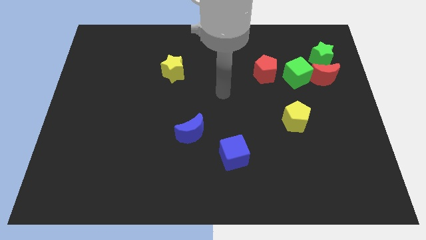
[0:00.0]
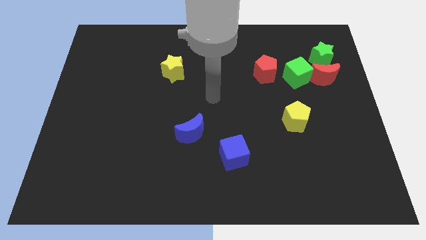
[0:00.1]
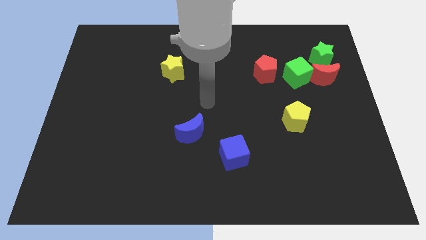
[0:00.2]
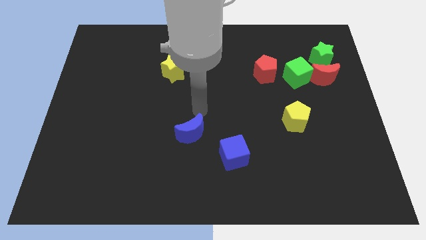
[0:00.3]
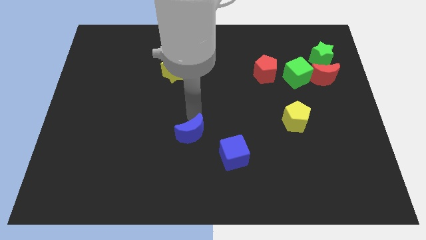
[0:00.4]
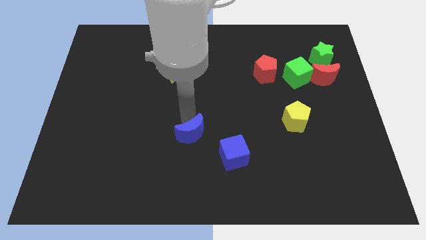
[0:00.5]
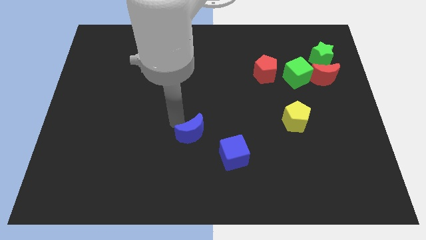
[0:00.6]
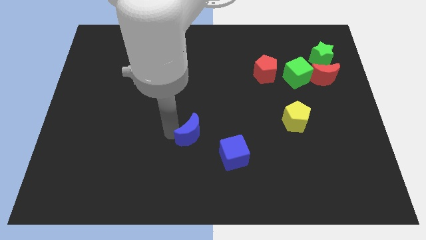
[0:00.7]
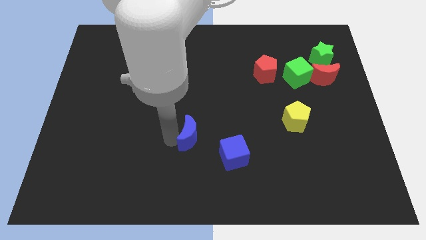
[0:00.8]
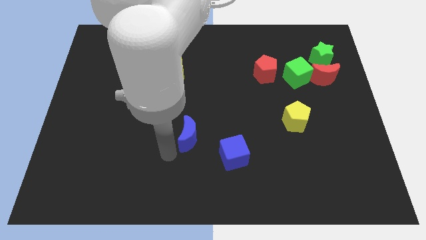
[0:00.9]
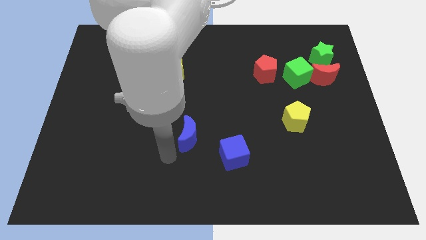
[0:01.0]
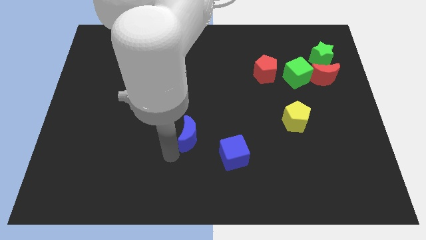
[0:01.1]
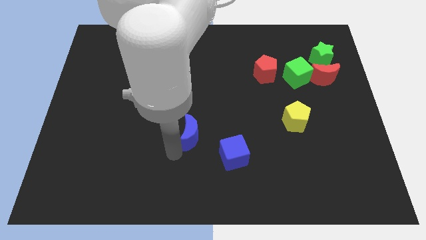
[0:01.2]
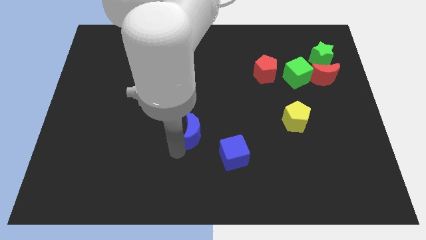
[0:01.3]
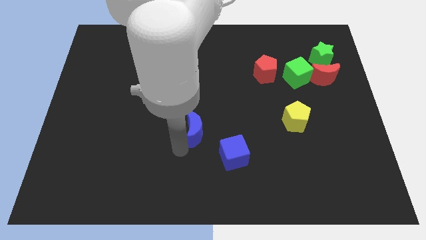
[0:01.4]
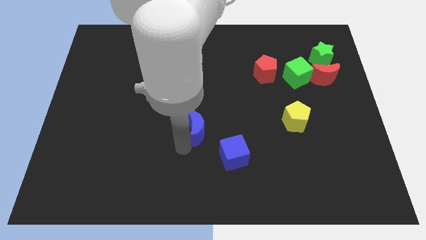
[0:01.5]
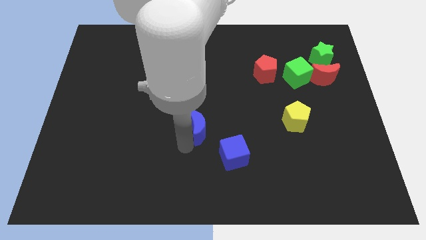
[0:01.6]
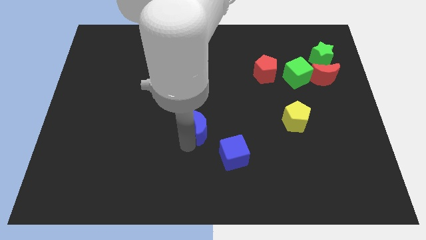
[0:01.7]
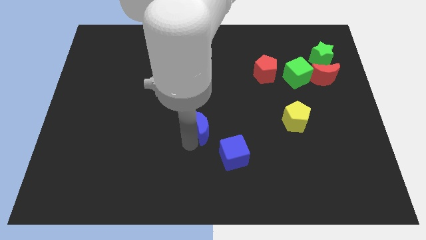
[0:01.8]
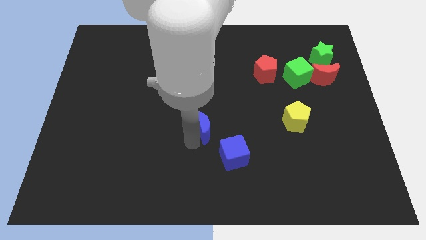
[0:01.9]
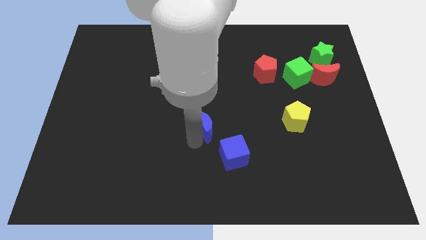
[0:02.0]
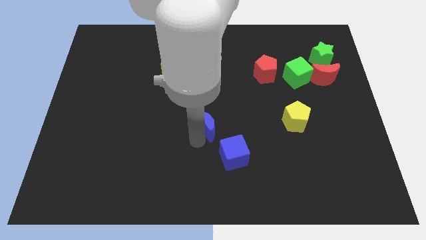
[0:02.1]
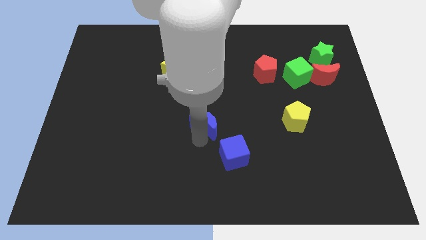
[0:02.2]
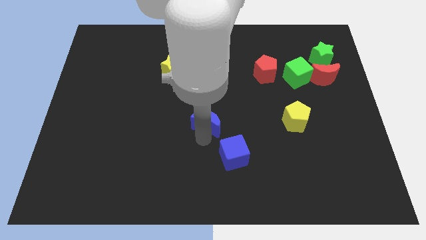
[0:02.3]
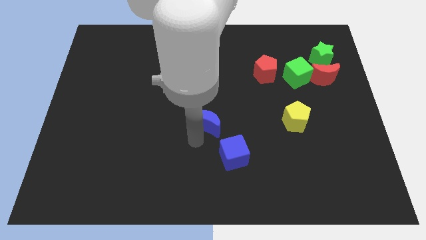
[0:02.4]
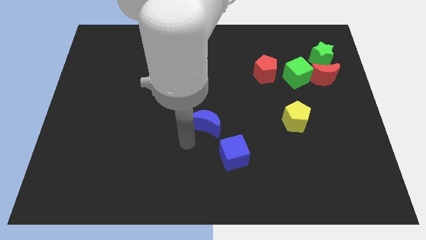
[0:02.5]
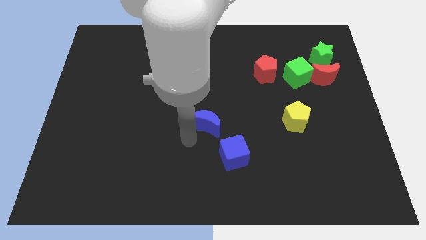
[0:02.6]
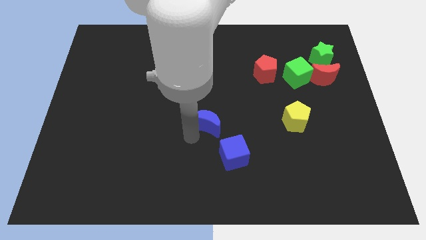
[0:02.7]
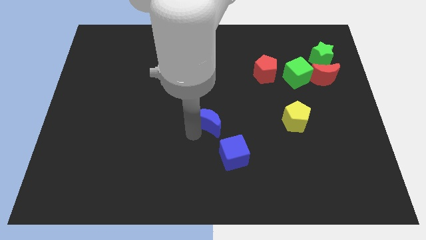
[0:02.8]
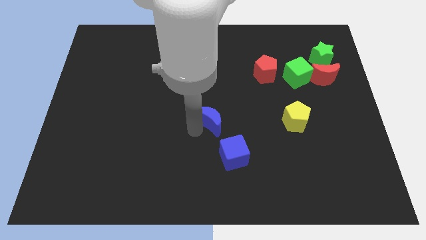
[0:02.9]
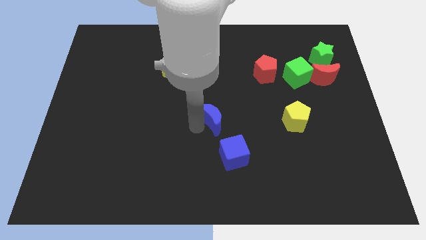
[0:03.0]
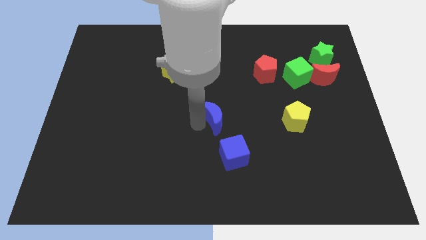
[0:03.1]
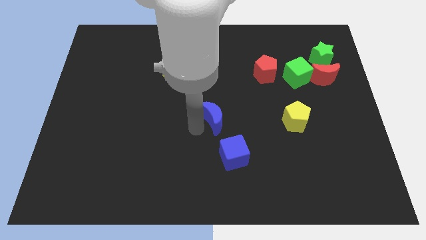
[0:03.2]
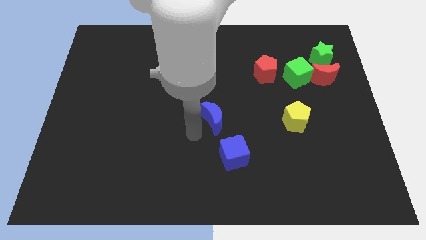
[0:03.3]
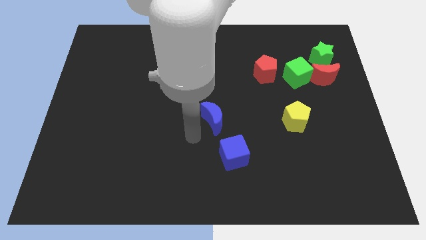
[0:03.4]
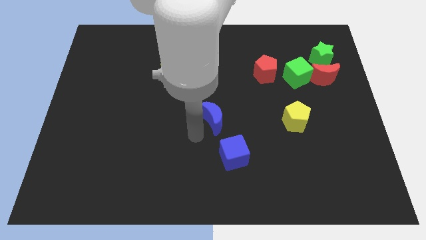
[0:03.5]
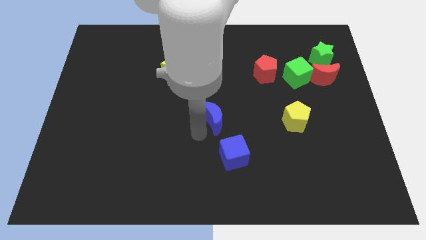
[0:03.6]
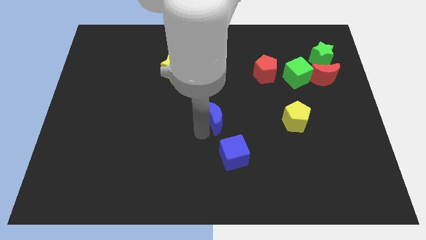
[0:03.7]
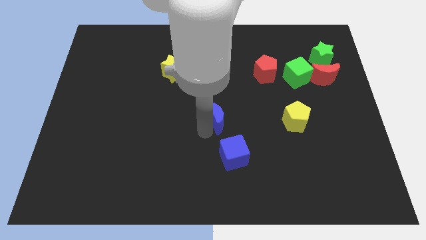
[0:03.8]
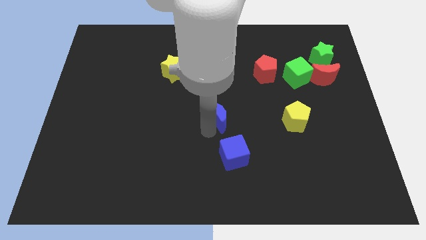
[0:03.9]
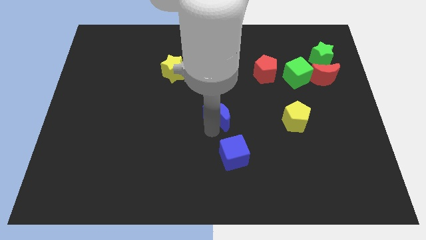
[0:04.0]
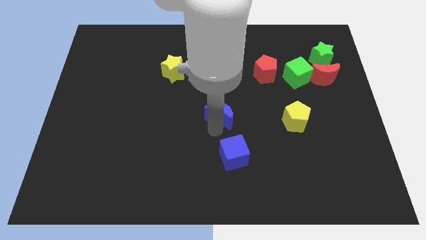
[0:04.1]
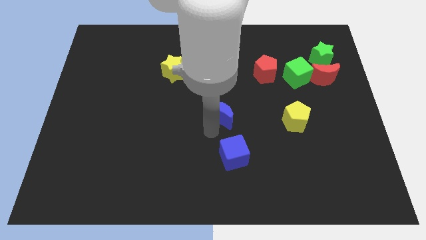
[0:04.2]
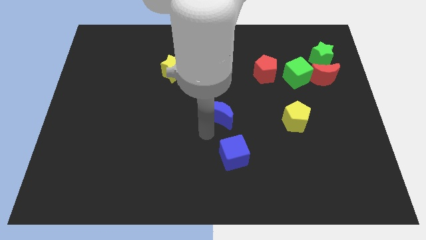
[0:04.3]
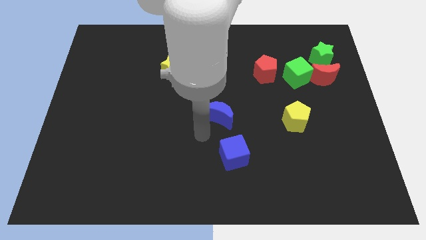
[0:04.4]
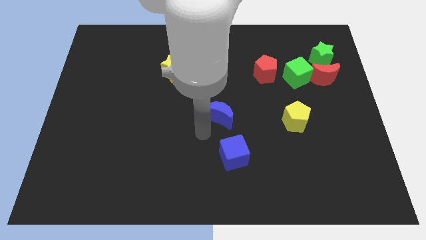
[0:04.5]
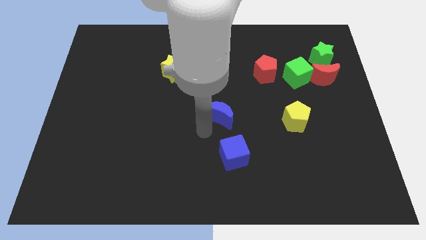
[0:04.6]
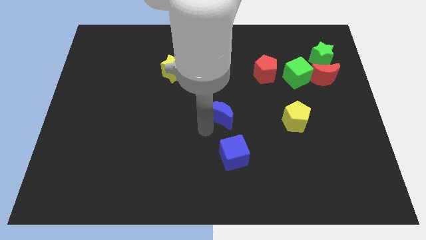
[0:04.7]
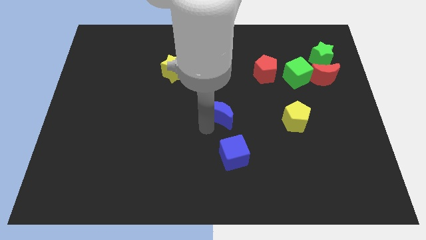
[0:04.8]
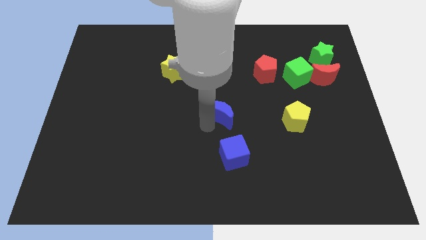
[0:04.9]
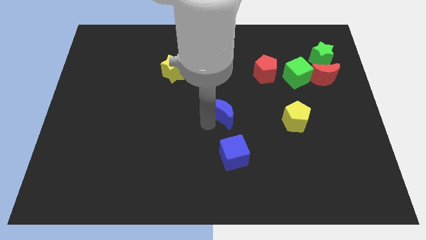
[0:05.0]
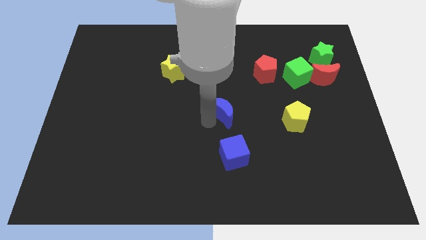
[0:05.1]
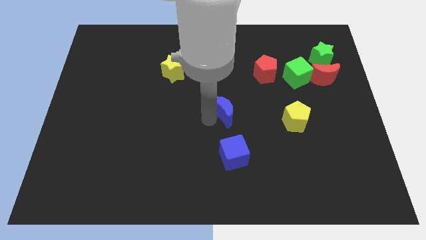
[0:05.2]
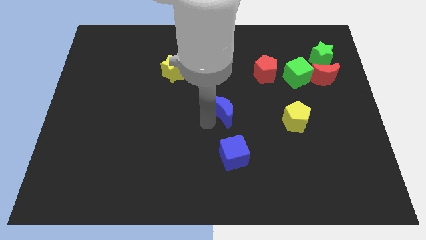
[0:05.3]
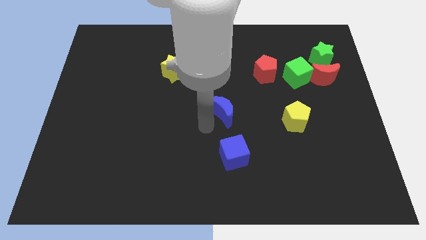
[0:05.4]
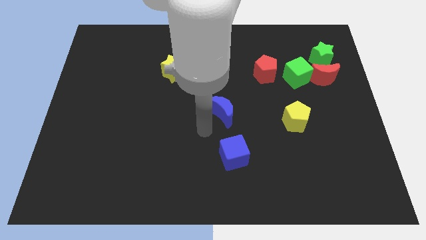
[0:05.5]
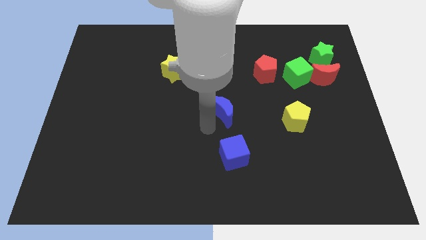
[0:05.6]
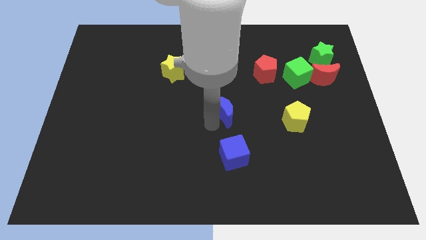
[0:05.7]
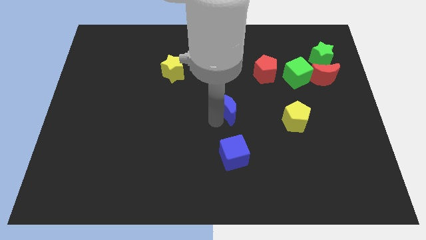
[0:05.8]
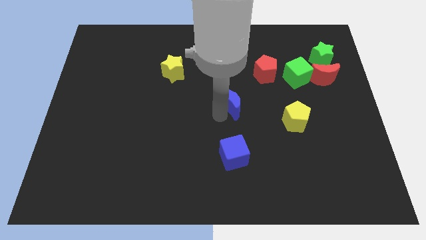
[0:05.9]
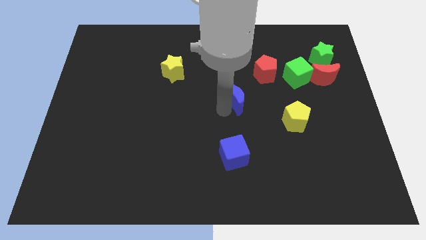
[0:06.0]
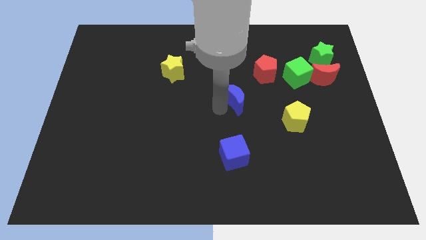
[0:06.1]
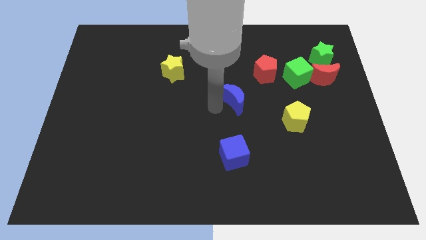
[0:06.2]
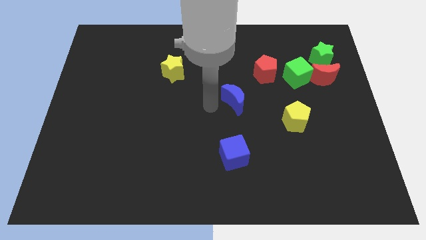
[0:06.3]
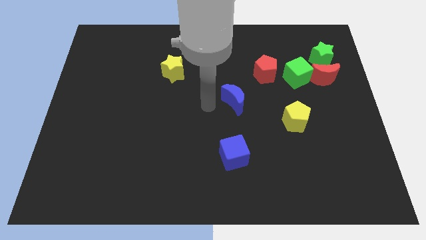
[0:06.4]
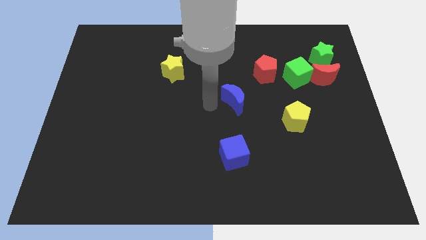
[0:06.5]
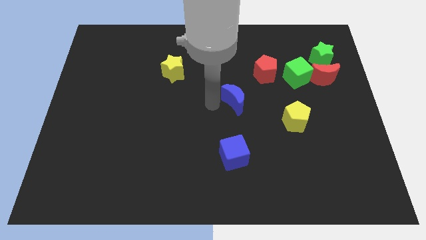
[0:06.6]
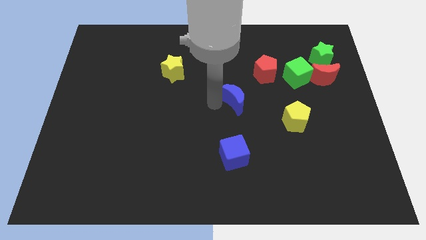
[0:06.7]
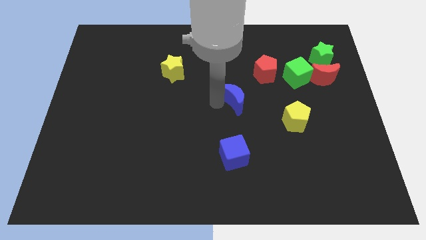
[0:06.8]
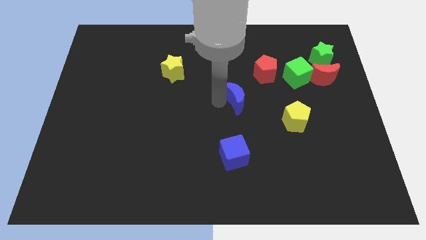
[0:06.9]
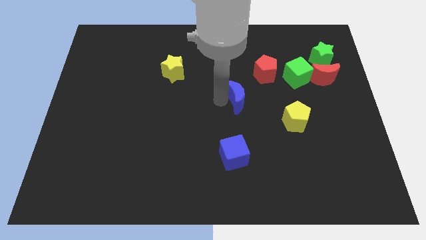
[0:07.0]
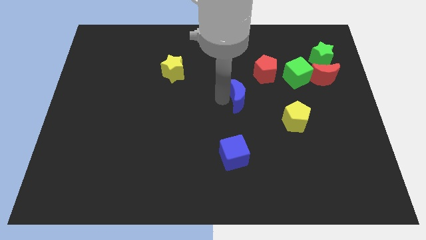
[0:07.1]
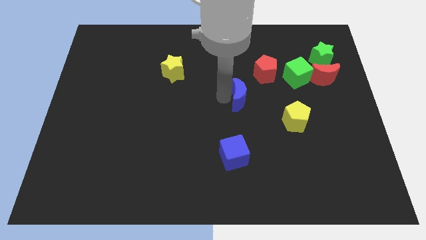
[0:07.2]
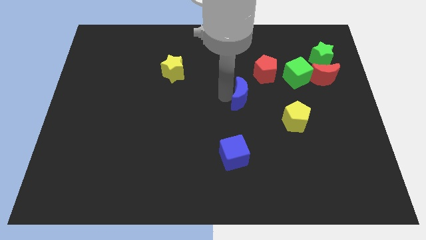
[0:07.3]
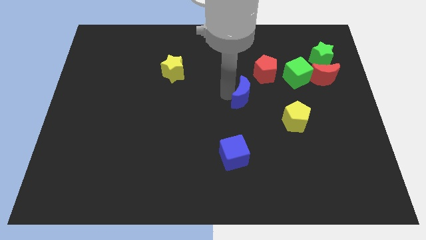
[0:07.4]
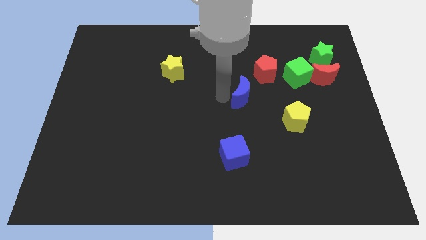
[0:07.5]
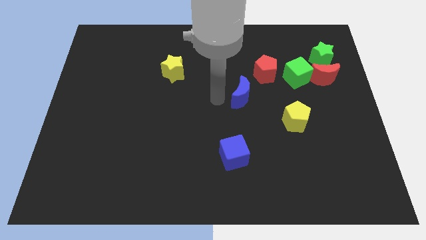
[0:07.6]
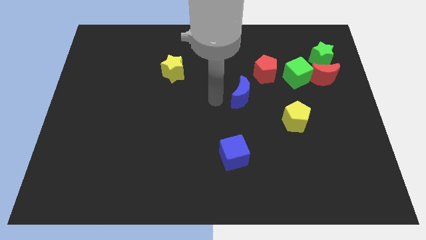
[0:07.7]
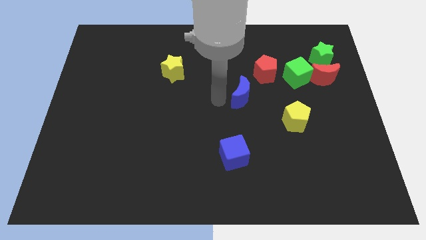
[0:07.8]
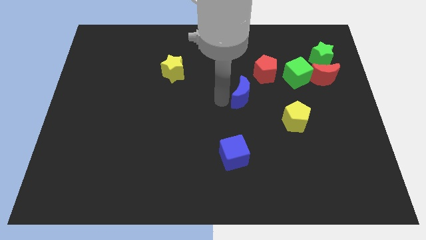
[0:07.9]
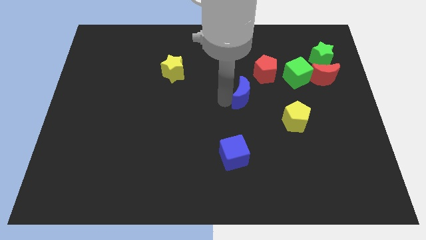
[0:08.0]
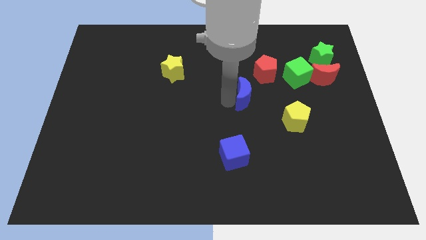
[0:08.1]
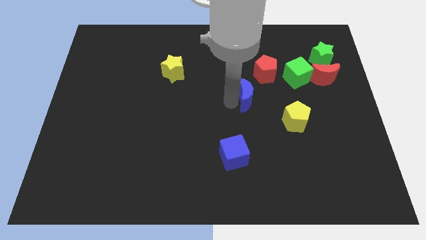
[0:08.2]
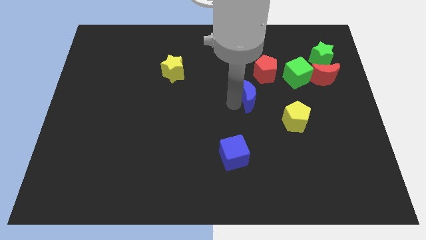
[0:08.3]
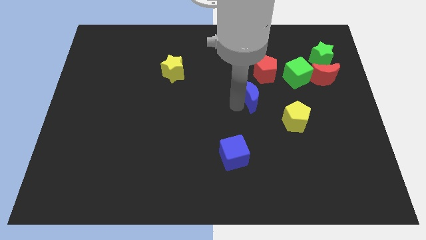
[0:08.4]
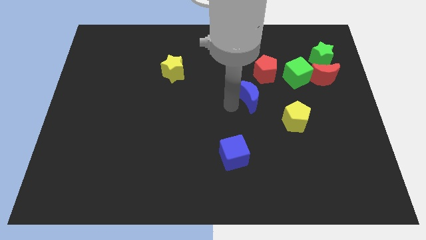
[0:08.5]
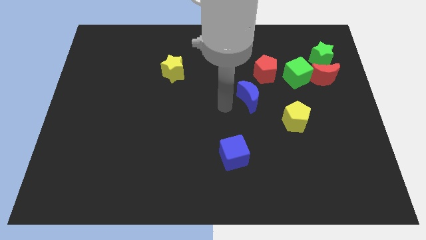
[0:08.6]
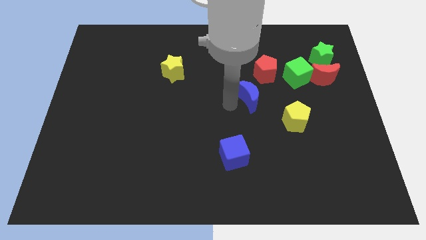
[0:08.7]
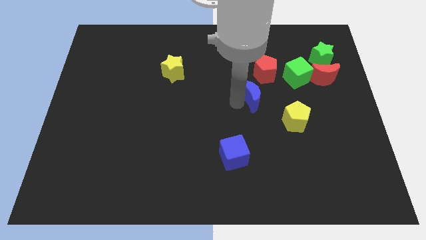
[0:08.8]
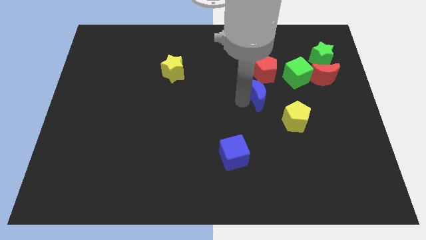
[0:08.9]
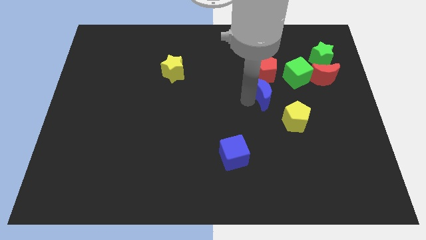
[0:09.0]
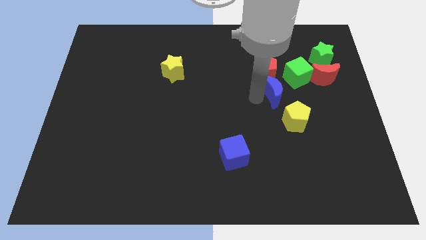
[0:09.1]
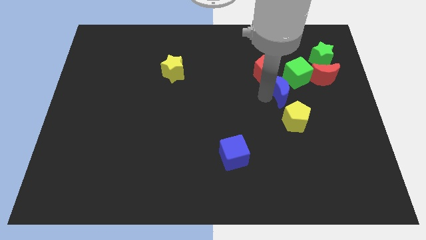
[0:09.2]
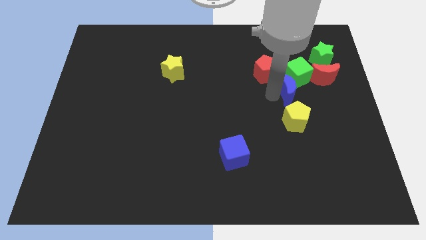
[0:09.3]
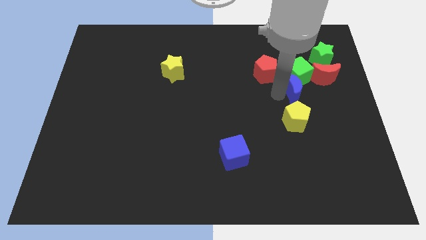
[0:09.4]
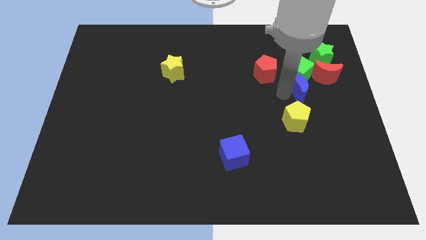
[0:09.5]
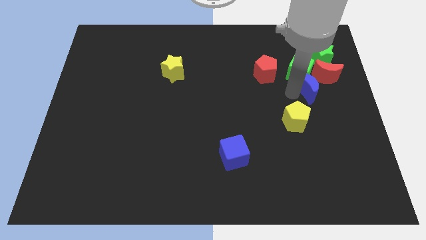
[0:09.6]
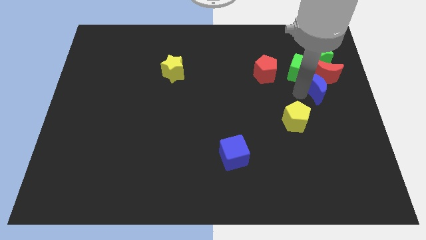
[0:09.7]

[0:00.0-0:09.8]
push the blue moon close to the red moon
